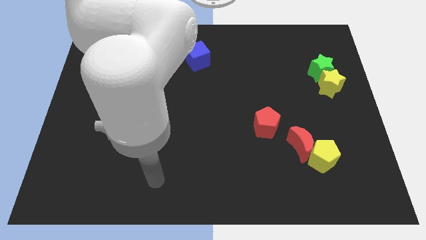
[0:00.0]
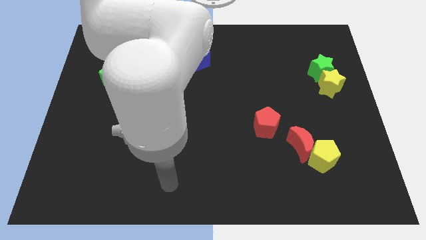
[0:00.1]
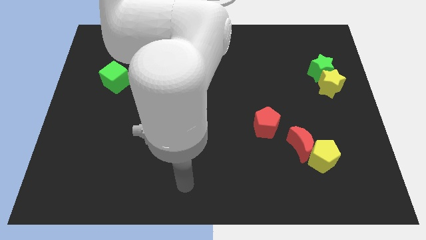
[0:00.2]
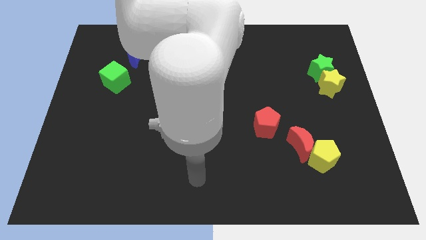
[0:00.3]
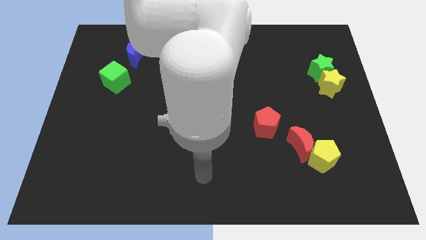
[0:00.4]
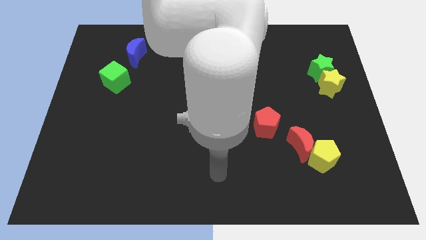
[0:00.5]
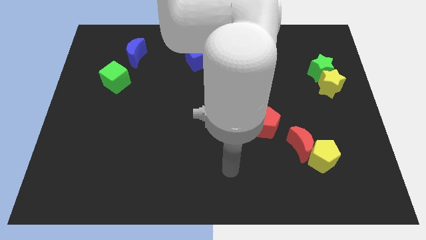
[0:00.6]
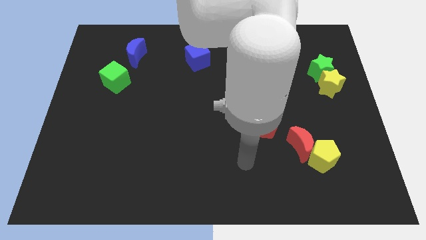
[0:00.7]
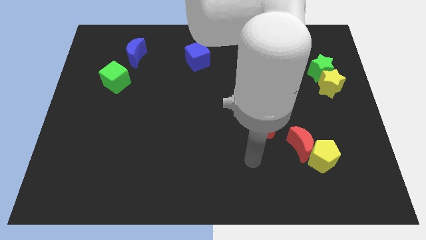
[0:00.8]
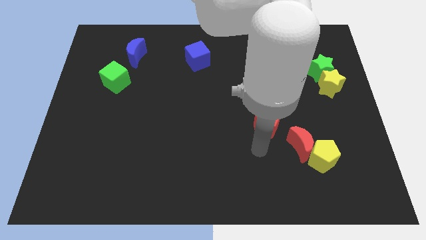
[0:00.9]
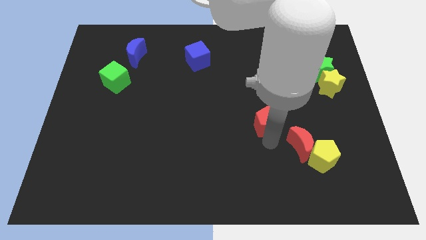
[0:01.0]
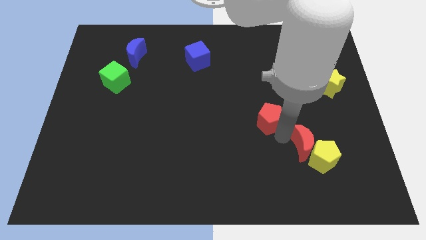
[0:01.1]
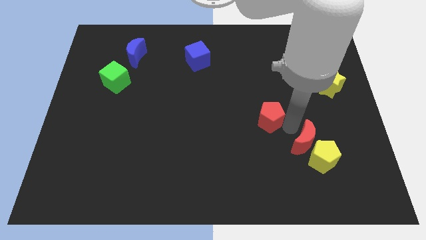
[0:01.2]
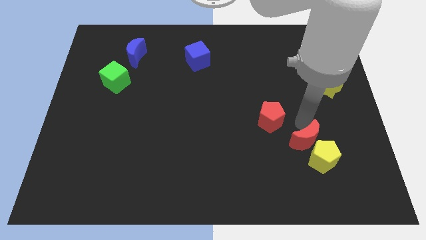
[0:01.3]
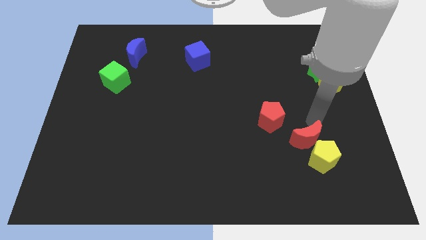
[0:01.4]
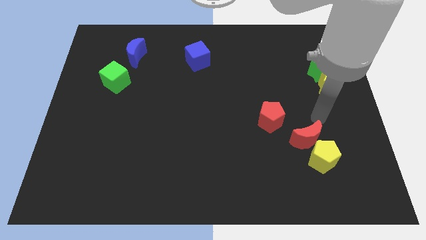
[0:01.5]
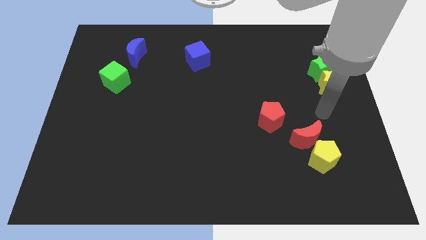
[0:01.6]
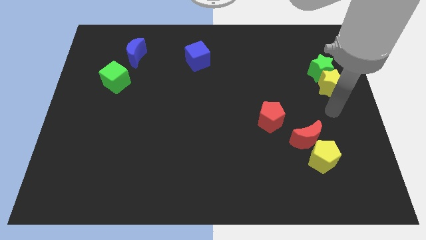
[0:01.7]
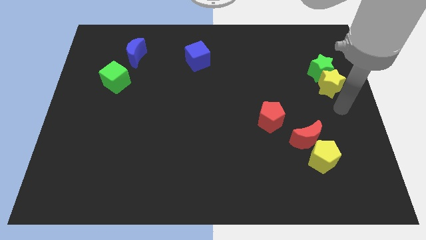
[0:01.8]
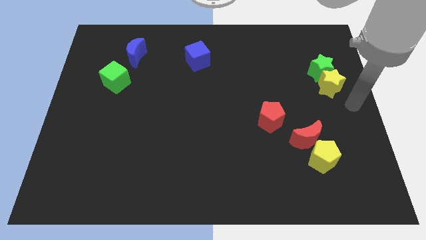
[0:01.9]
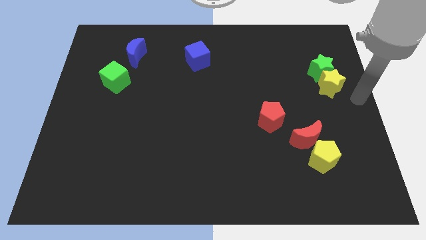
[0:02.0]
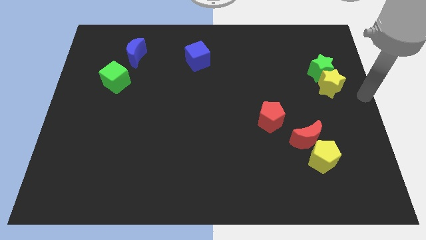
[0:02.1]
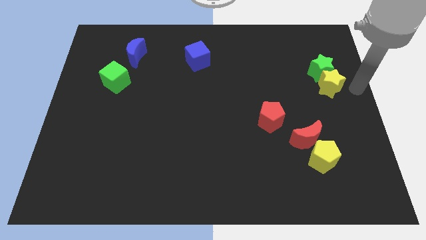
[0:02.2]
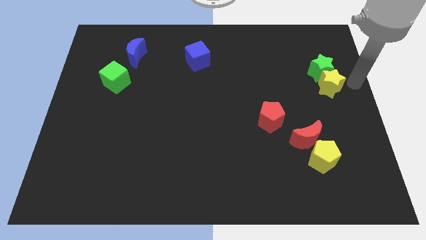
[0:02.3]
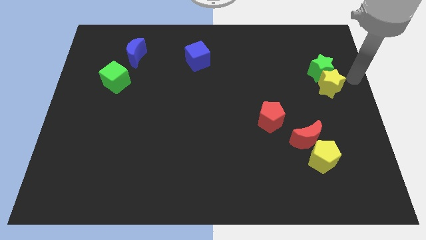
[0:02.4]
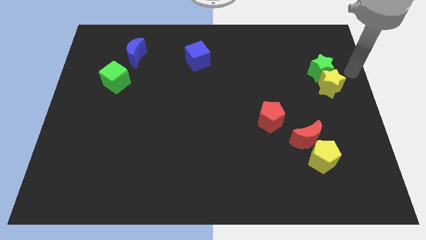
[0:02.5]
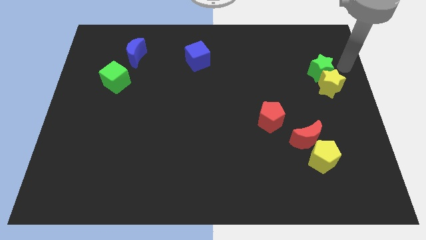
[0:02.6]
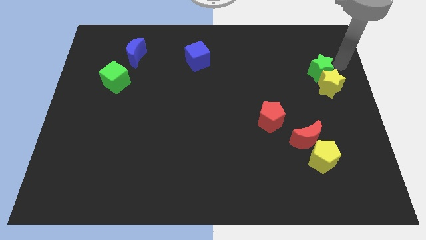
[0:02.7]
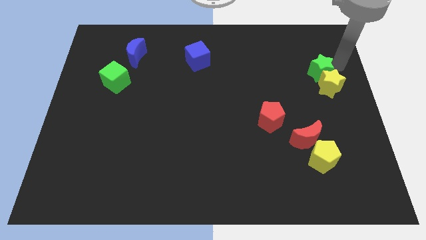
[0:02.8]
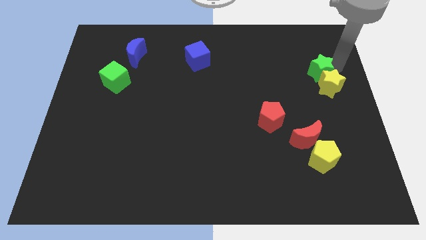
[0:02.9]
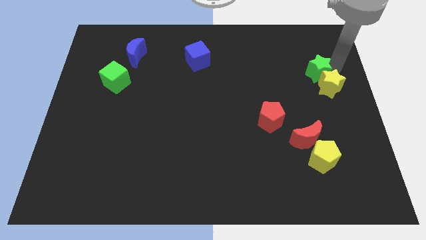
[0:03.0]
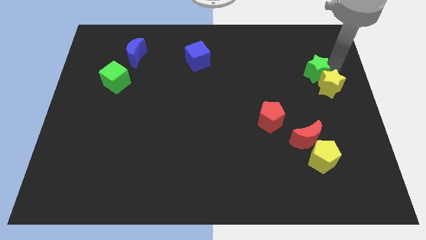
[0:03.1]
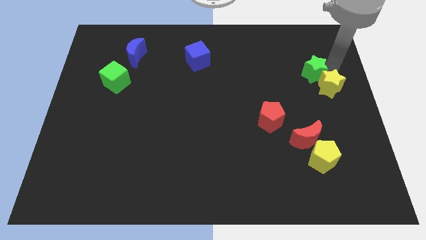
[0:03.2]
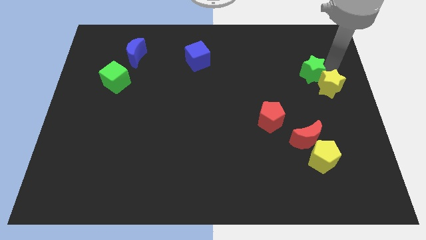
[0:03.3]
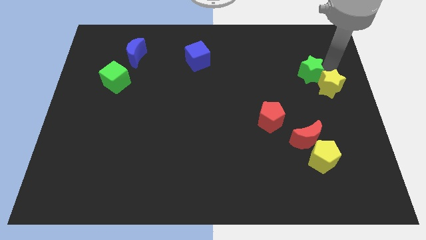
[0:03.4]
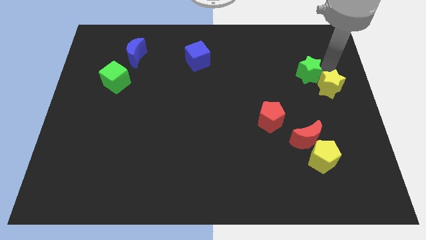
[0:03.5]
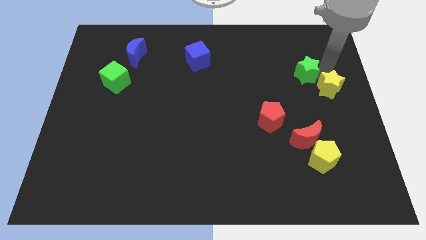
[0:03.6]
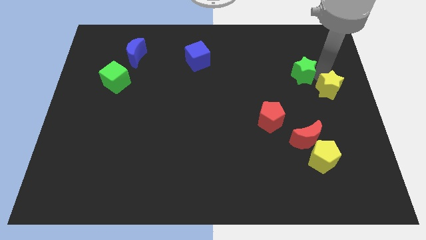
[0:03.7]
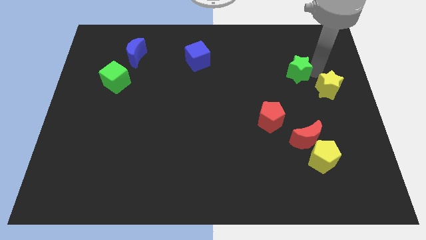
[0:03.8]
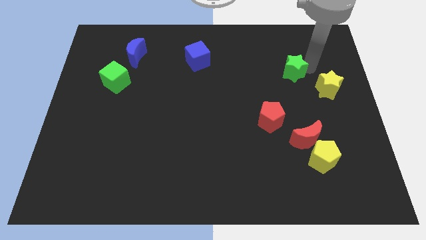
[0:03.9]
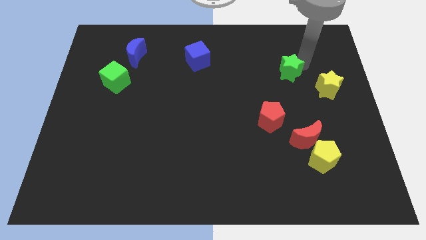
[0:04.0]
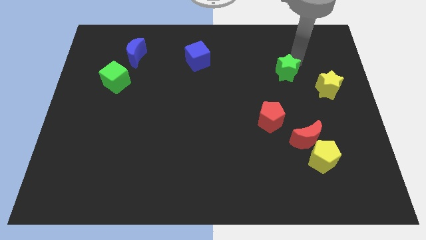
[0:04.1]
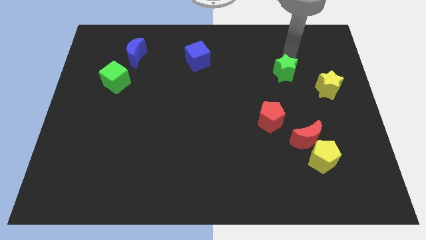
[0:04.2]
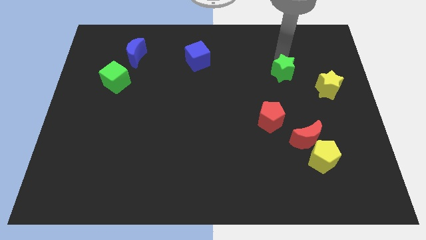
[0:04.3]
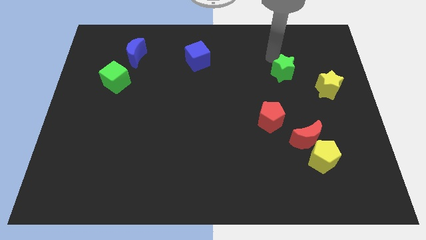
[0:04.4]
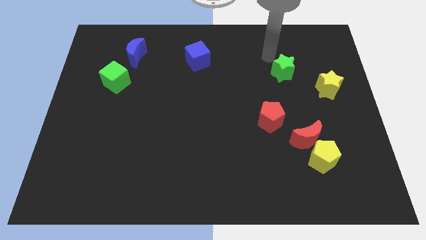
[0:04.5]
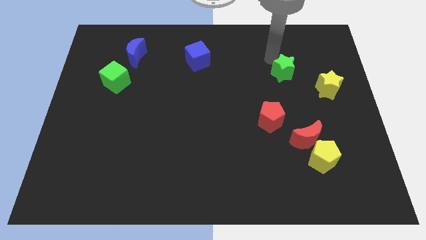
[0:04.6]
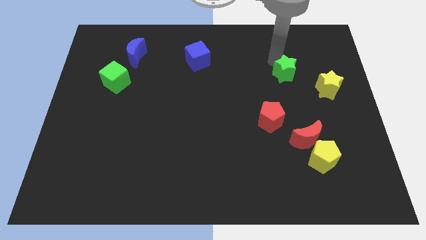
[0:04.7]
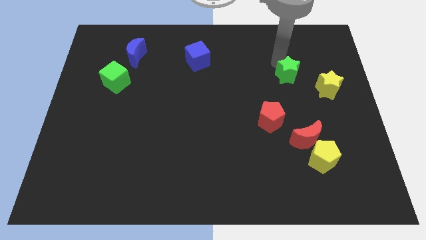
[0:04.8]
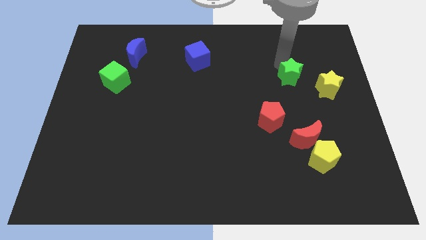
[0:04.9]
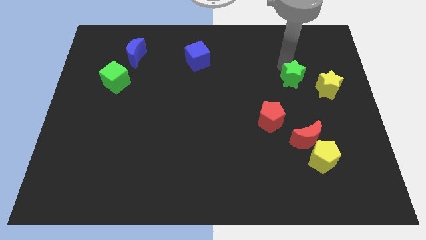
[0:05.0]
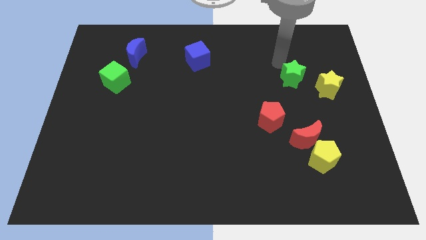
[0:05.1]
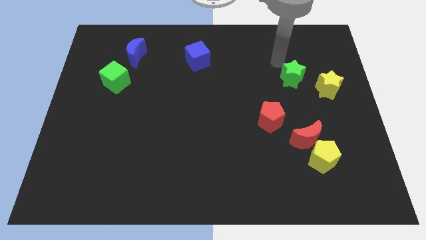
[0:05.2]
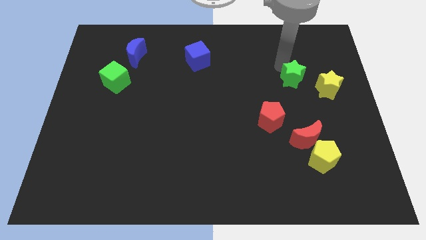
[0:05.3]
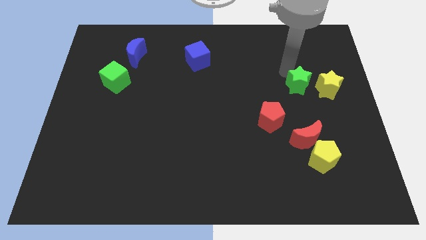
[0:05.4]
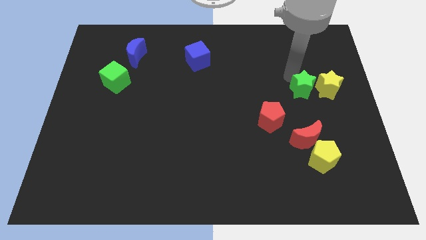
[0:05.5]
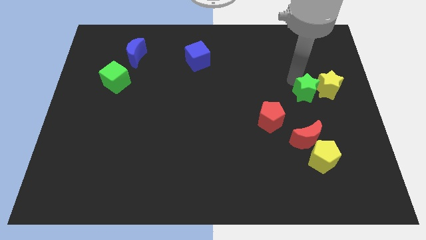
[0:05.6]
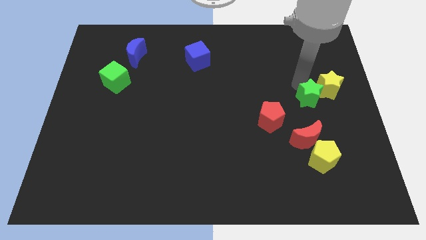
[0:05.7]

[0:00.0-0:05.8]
slide the green star a little downwards

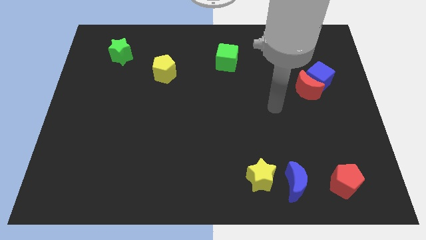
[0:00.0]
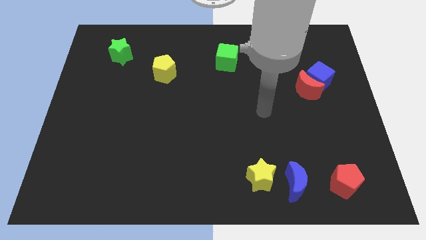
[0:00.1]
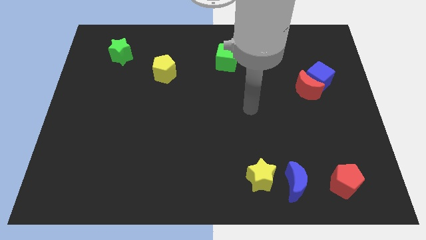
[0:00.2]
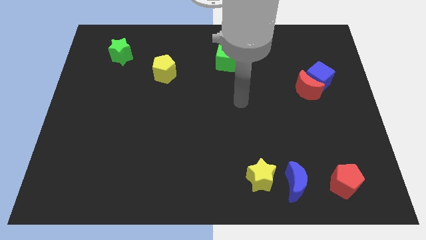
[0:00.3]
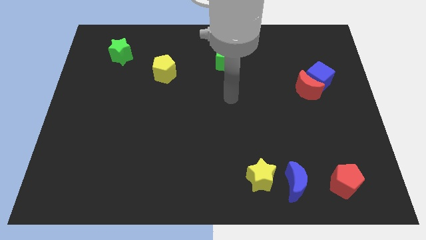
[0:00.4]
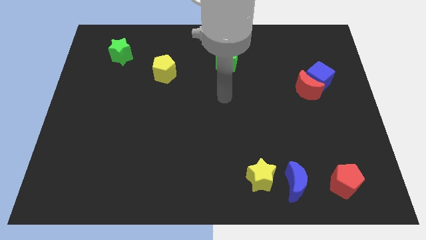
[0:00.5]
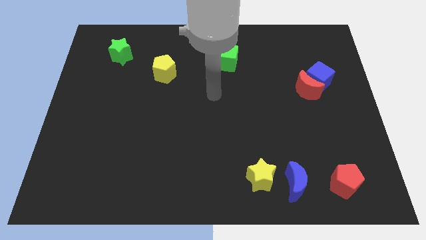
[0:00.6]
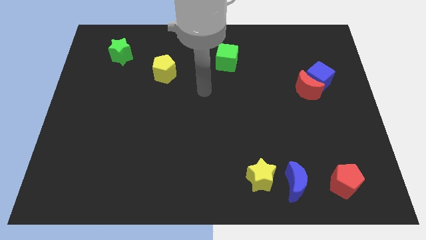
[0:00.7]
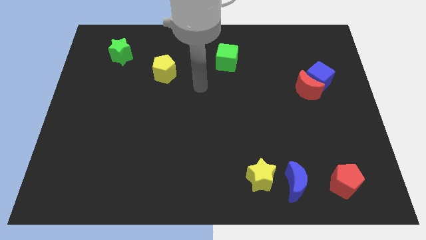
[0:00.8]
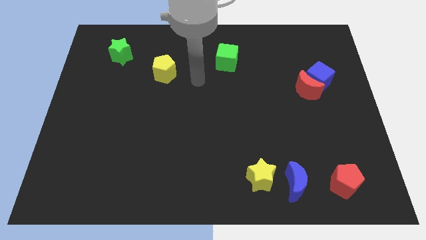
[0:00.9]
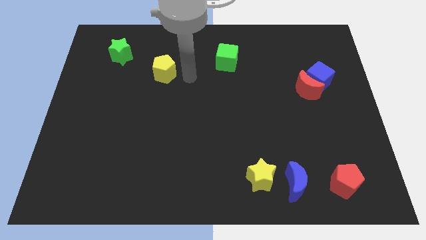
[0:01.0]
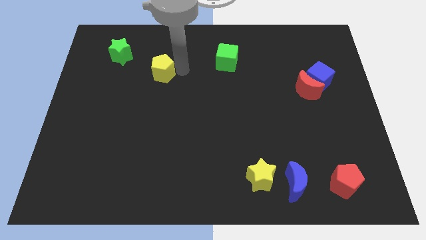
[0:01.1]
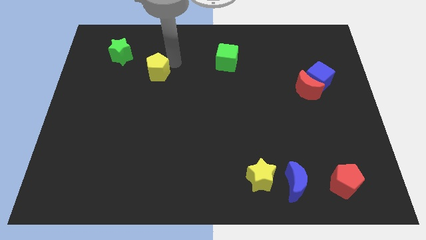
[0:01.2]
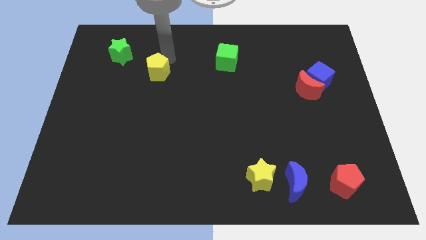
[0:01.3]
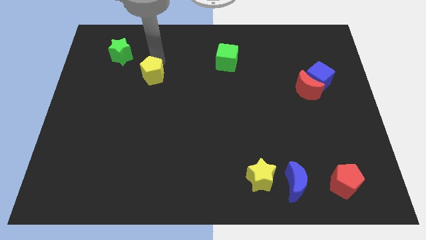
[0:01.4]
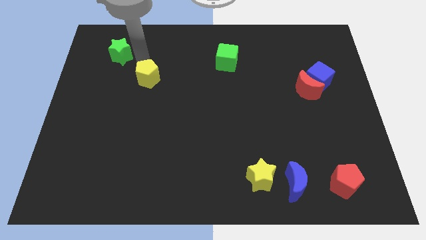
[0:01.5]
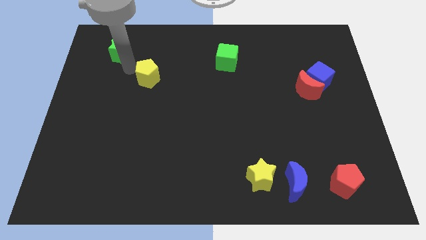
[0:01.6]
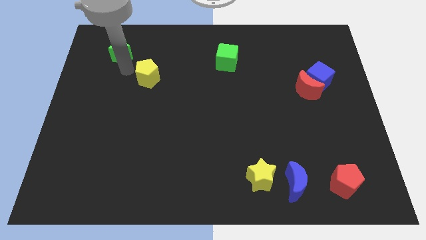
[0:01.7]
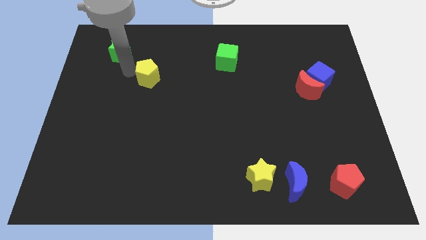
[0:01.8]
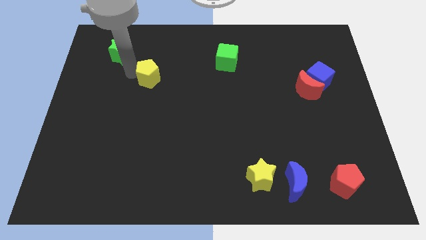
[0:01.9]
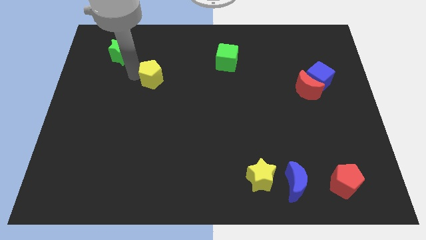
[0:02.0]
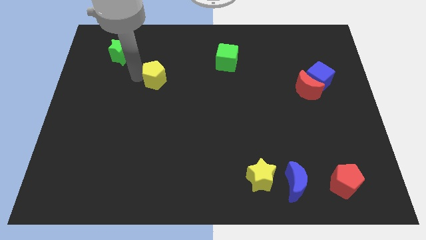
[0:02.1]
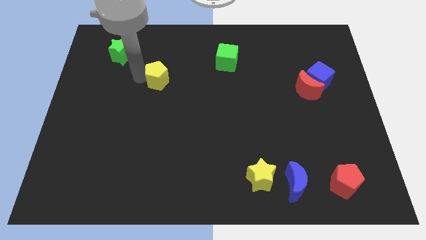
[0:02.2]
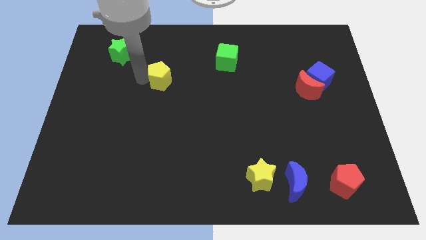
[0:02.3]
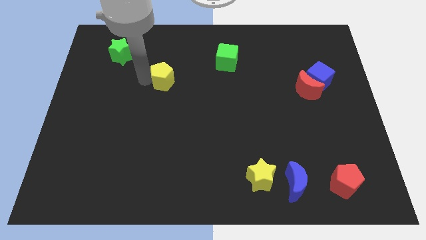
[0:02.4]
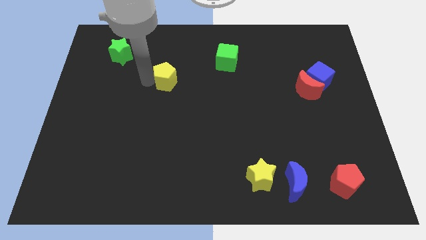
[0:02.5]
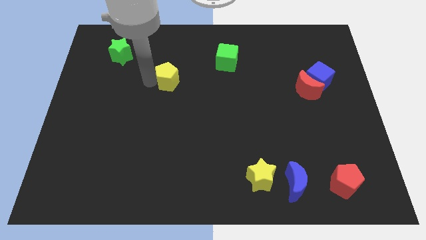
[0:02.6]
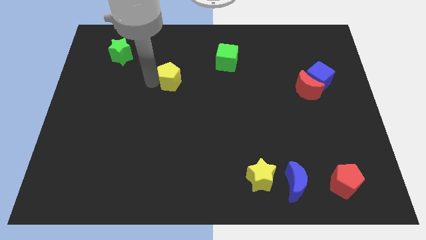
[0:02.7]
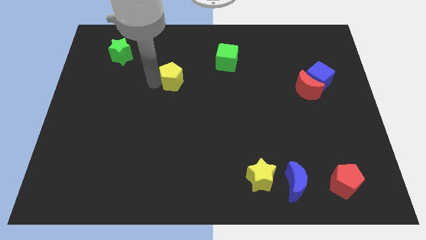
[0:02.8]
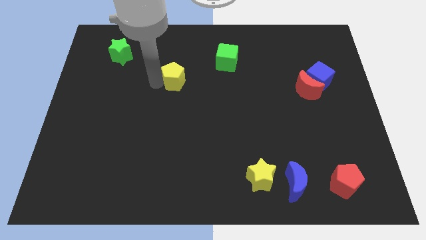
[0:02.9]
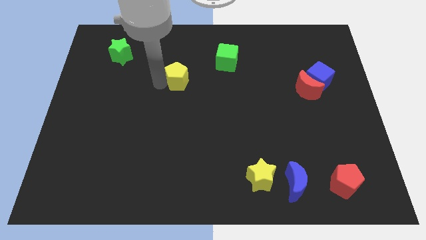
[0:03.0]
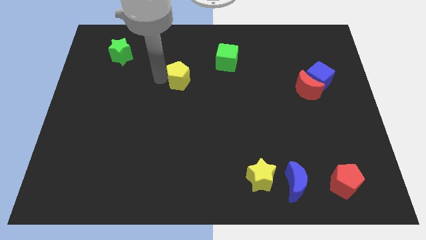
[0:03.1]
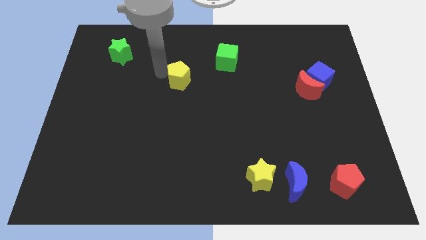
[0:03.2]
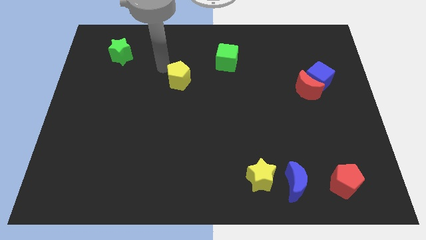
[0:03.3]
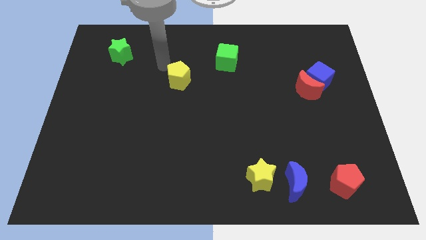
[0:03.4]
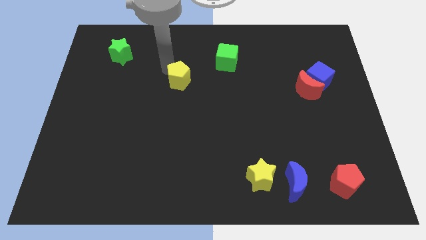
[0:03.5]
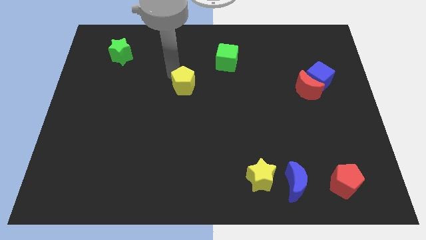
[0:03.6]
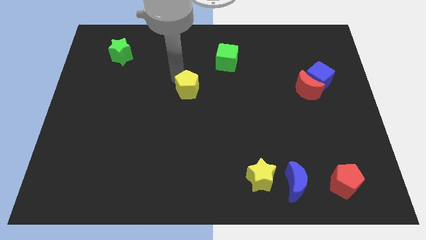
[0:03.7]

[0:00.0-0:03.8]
move the yellow pentagon somewhat down and to the right
